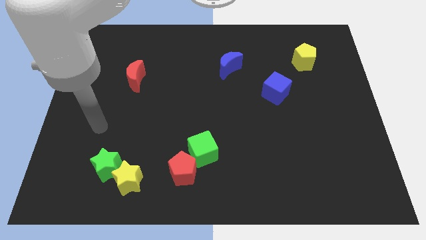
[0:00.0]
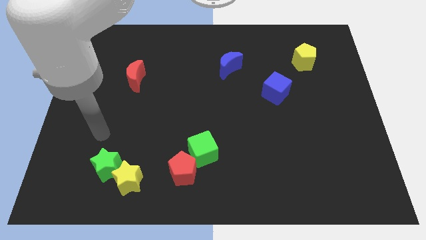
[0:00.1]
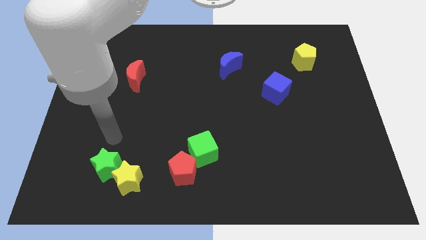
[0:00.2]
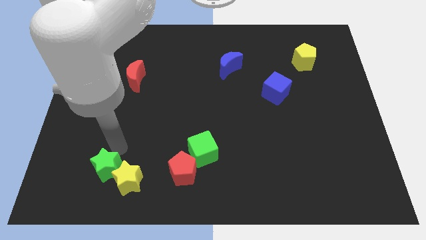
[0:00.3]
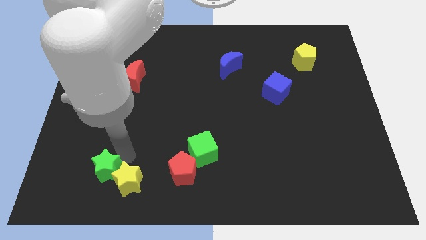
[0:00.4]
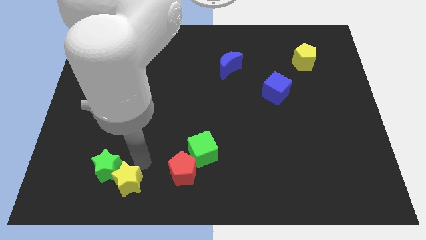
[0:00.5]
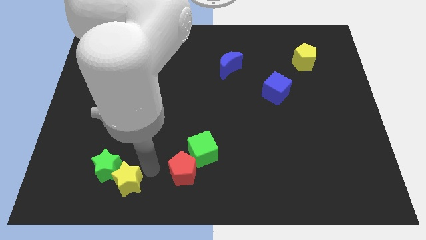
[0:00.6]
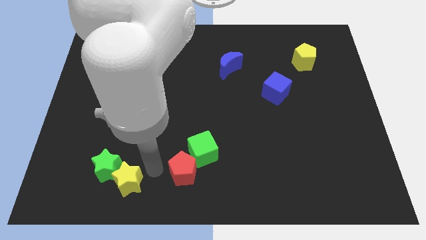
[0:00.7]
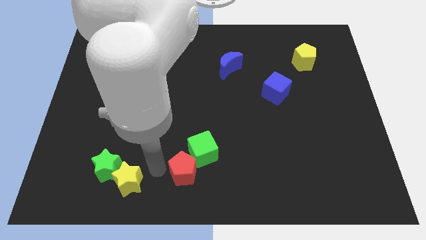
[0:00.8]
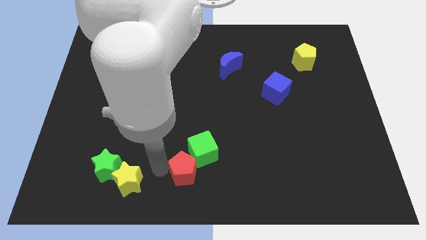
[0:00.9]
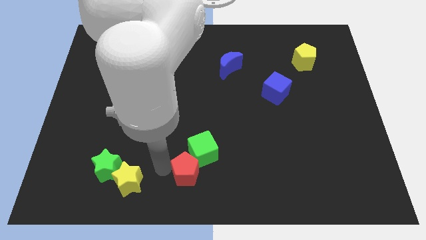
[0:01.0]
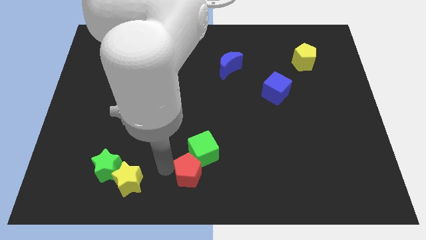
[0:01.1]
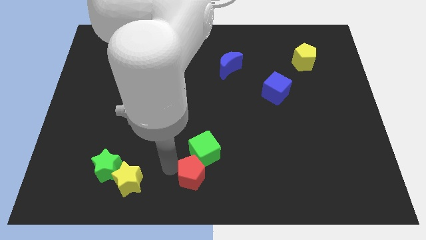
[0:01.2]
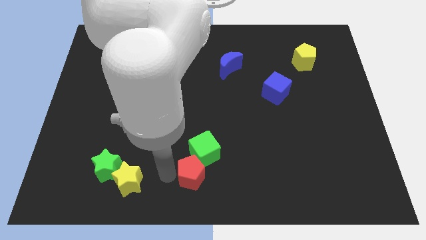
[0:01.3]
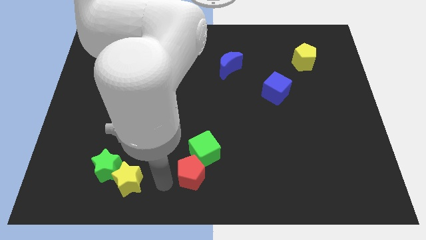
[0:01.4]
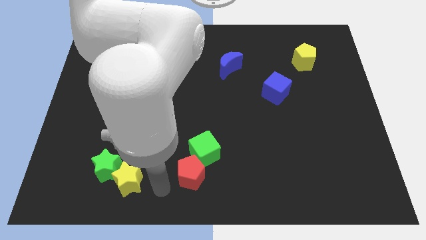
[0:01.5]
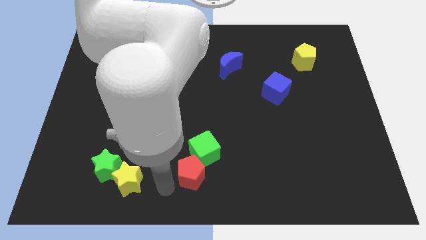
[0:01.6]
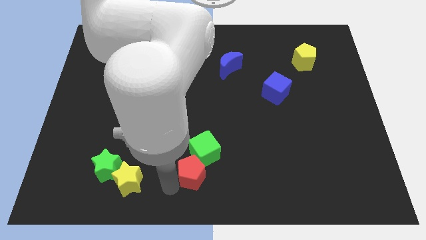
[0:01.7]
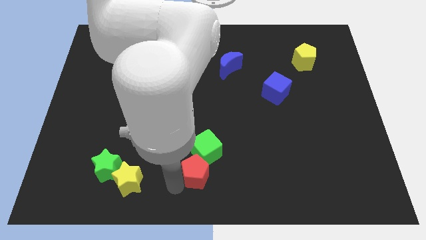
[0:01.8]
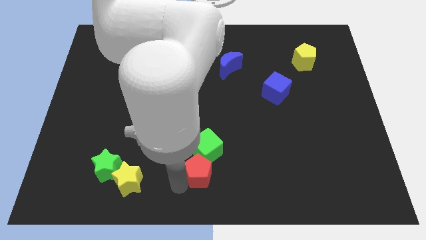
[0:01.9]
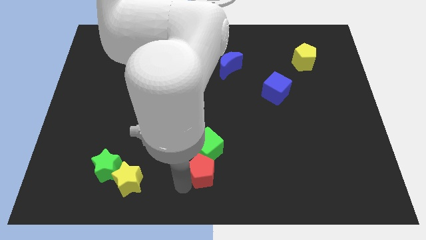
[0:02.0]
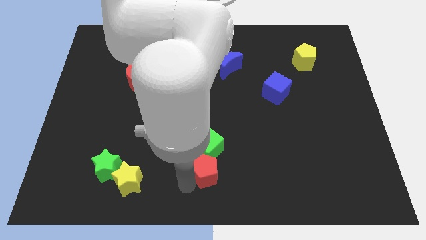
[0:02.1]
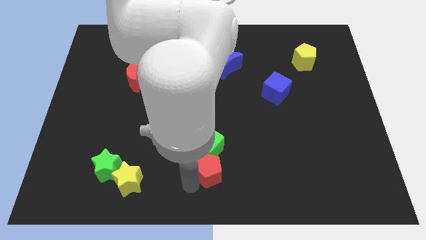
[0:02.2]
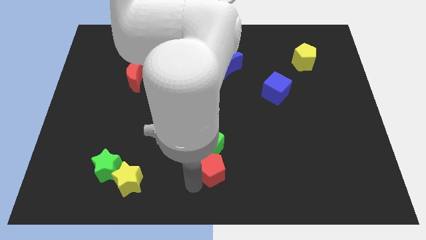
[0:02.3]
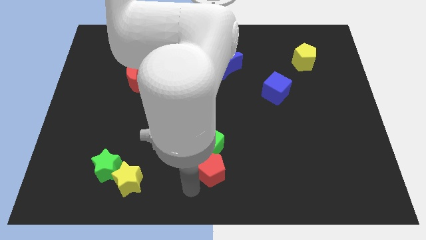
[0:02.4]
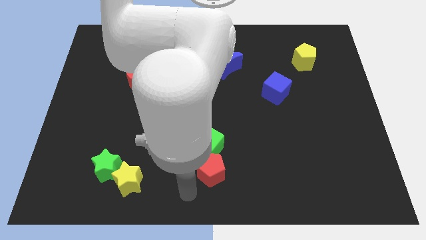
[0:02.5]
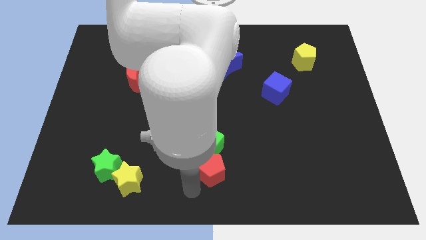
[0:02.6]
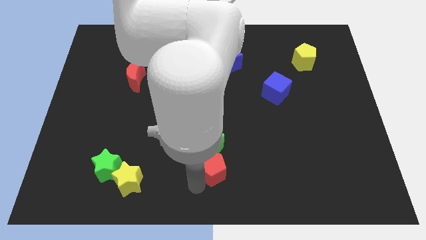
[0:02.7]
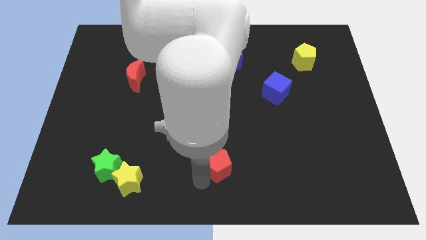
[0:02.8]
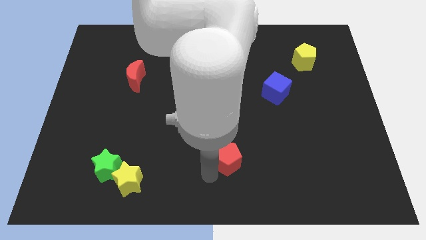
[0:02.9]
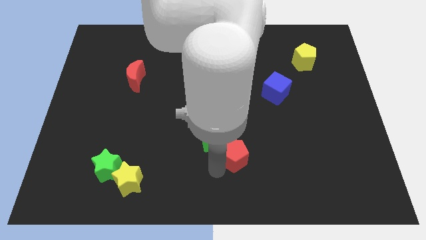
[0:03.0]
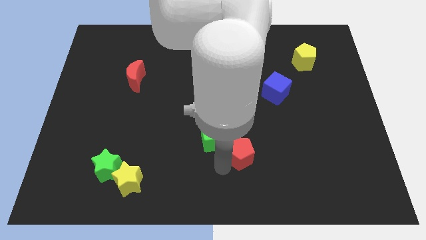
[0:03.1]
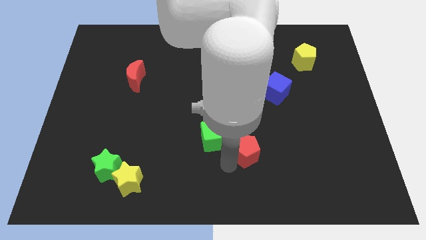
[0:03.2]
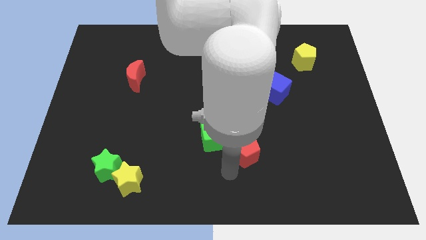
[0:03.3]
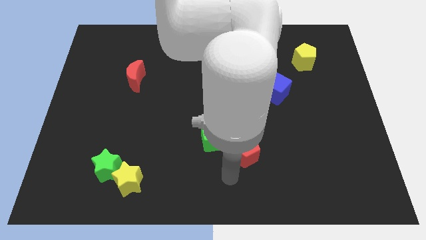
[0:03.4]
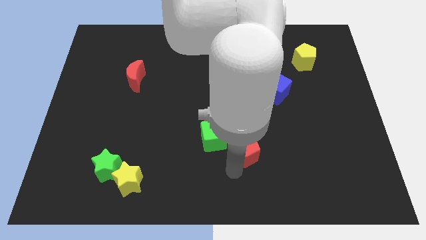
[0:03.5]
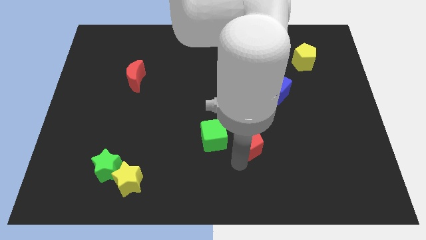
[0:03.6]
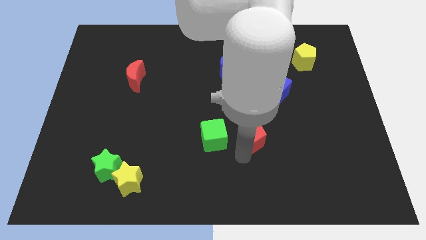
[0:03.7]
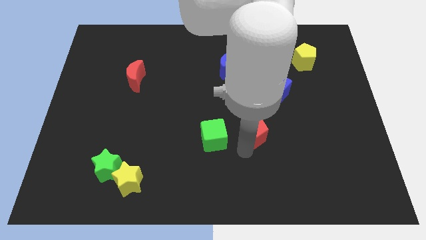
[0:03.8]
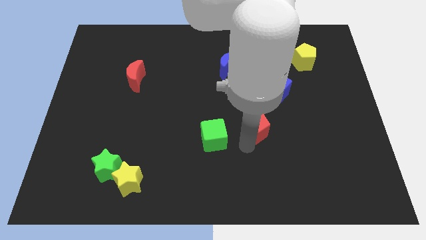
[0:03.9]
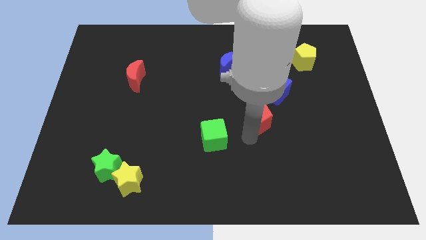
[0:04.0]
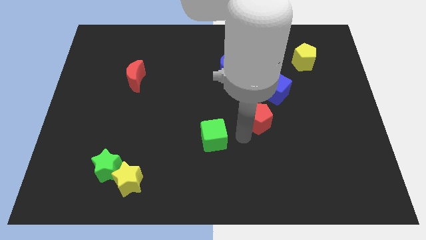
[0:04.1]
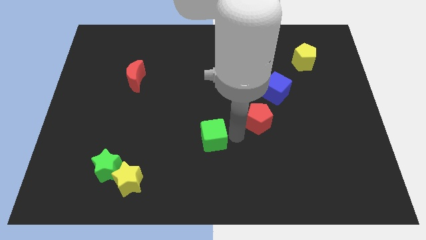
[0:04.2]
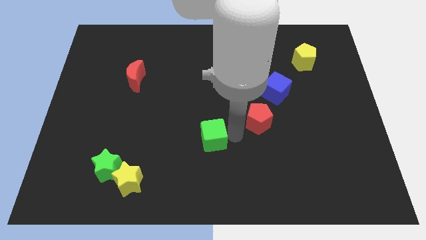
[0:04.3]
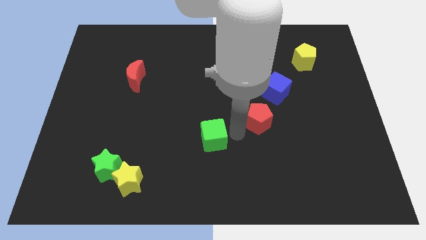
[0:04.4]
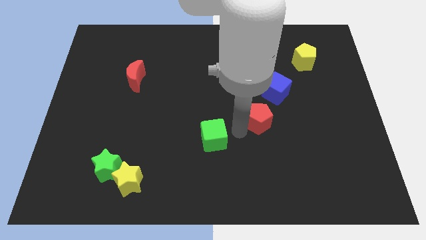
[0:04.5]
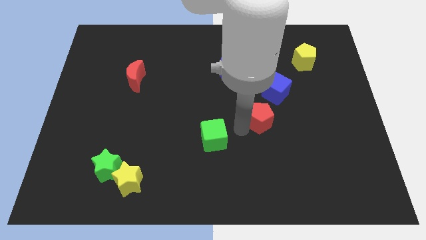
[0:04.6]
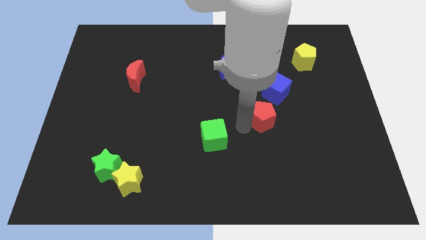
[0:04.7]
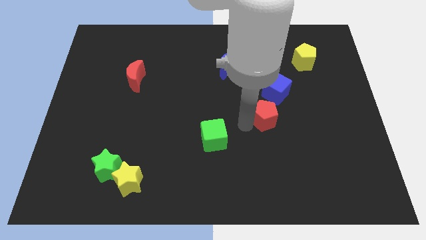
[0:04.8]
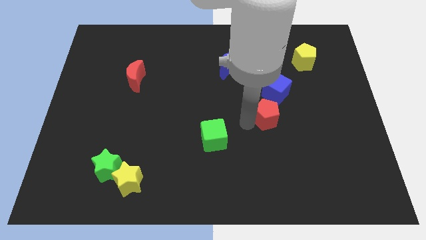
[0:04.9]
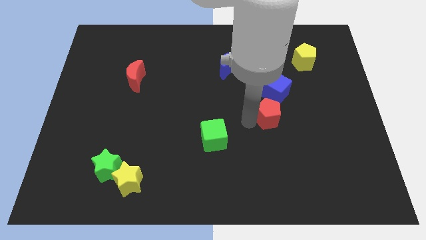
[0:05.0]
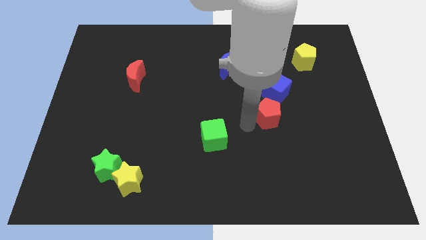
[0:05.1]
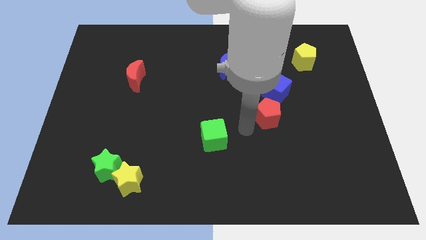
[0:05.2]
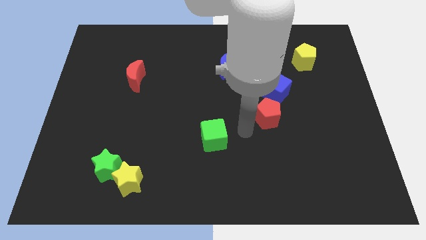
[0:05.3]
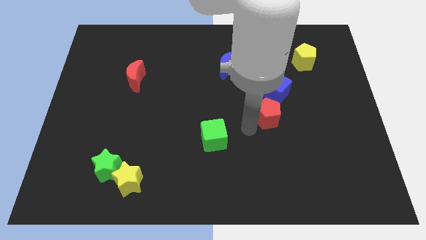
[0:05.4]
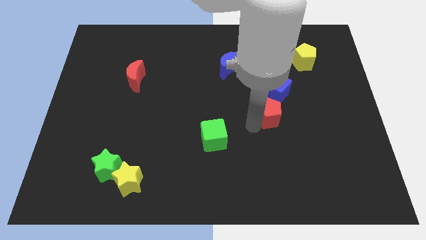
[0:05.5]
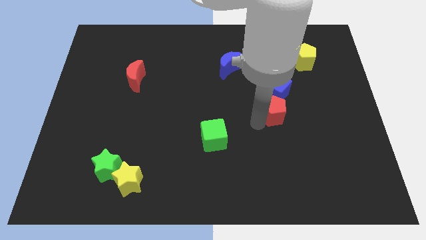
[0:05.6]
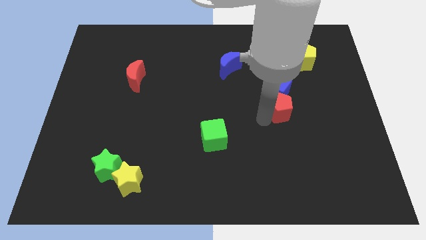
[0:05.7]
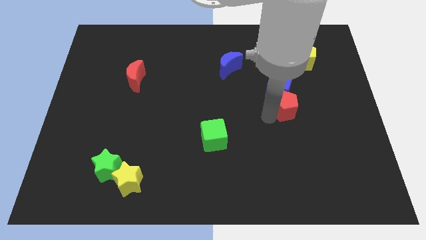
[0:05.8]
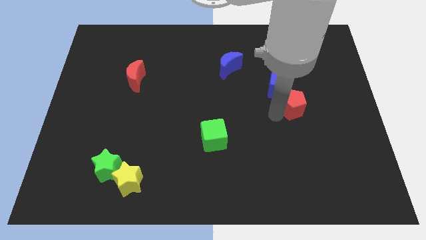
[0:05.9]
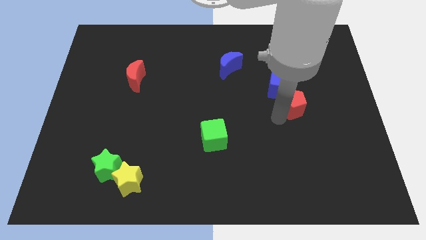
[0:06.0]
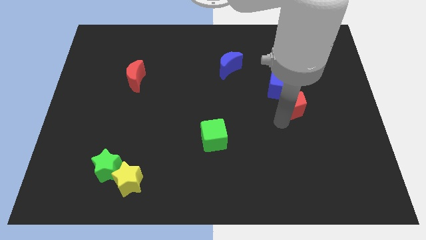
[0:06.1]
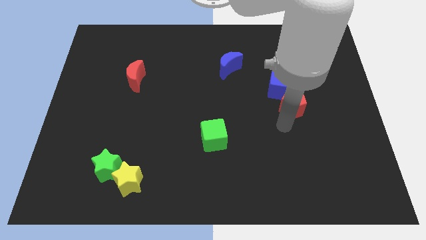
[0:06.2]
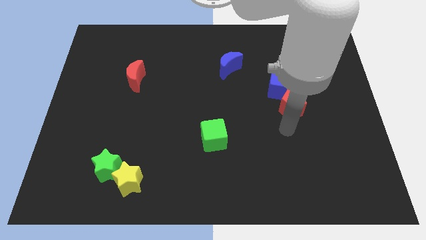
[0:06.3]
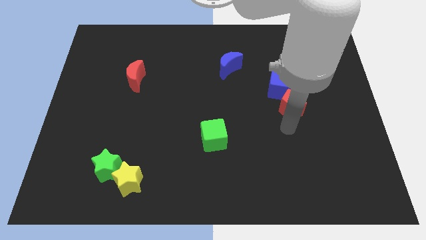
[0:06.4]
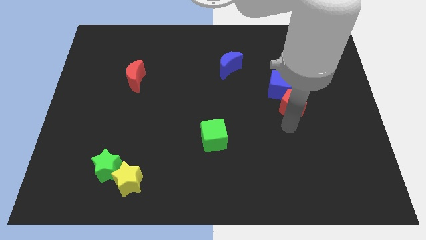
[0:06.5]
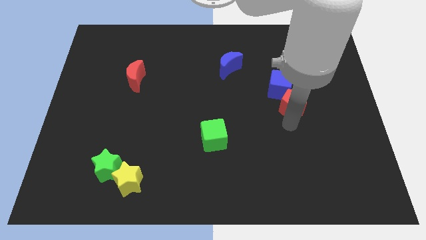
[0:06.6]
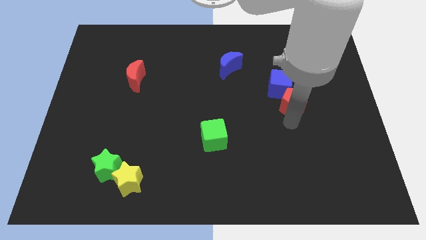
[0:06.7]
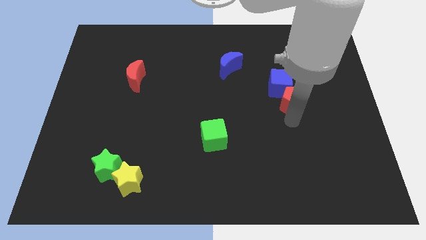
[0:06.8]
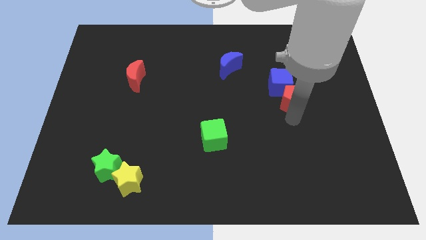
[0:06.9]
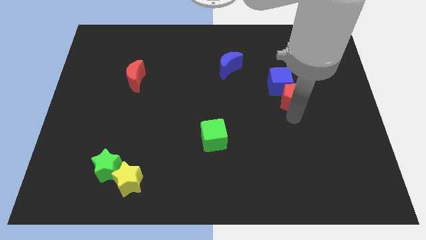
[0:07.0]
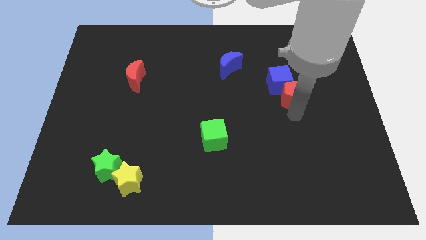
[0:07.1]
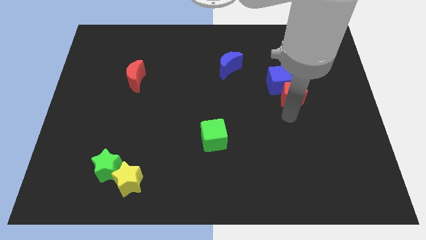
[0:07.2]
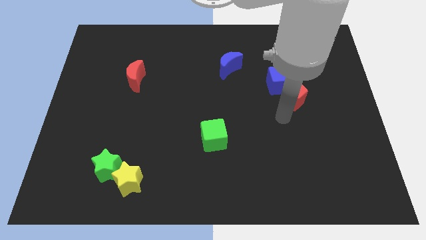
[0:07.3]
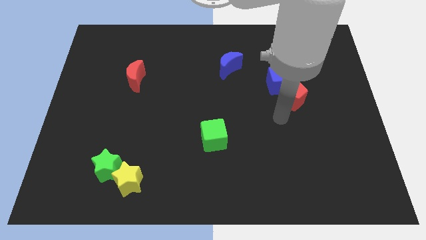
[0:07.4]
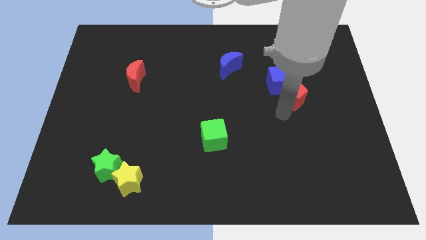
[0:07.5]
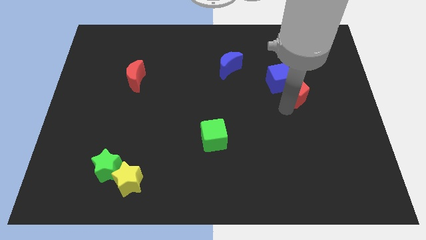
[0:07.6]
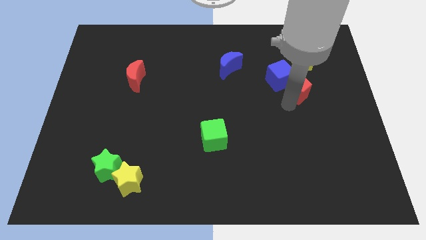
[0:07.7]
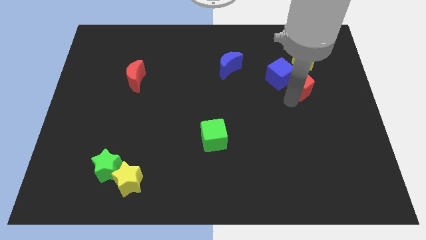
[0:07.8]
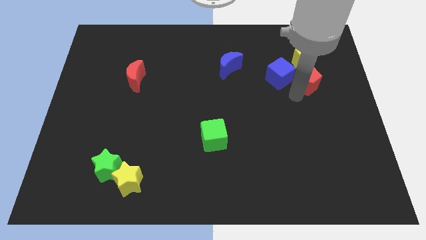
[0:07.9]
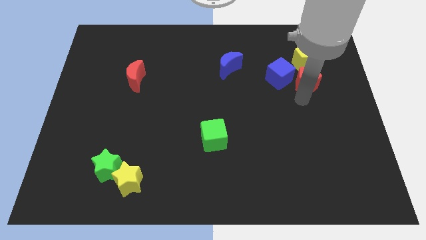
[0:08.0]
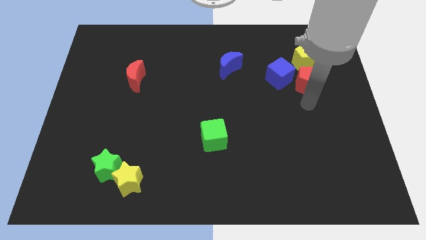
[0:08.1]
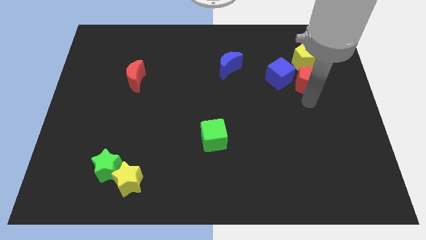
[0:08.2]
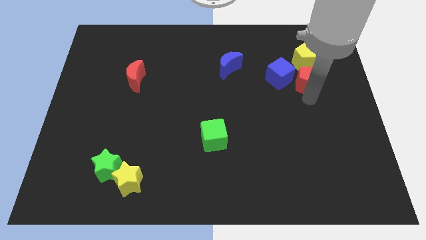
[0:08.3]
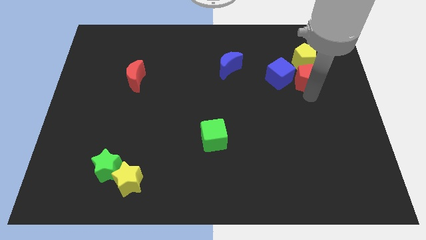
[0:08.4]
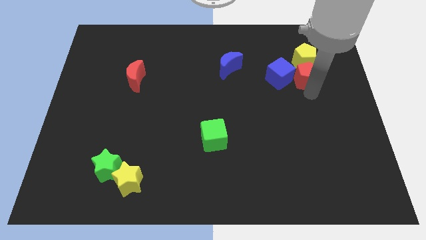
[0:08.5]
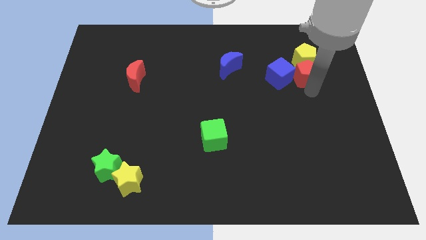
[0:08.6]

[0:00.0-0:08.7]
put the red pentagon to the yellow pentagon
